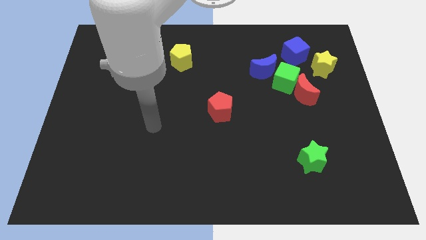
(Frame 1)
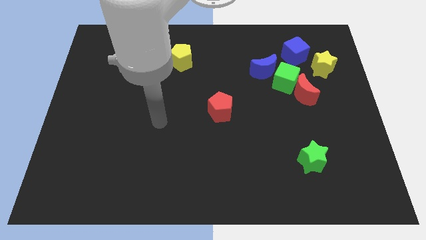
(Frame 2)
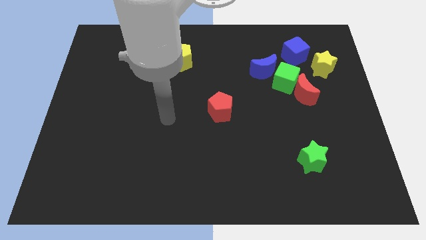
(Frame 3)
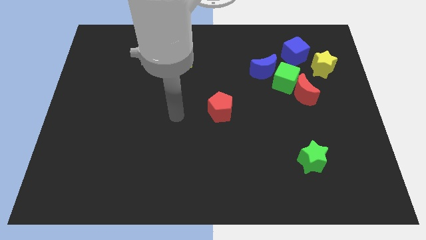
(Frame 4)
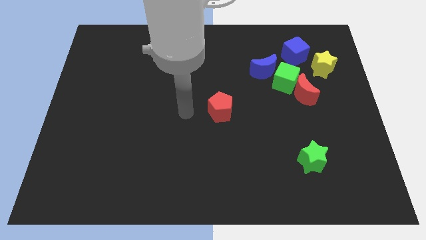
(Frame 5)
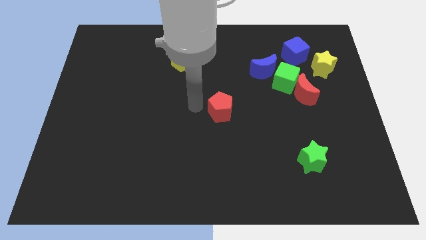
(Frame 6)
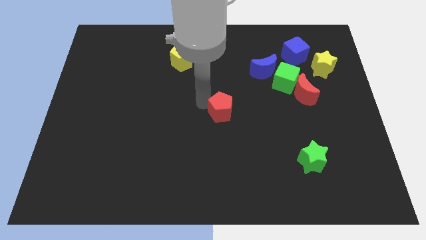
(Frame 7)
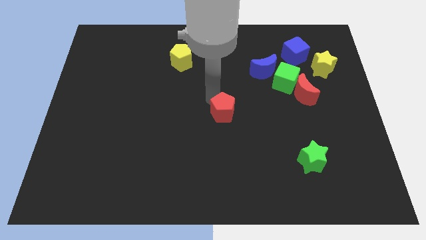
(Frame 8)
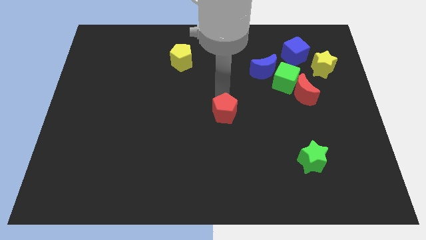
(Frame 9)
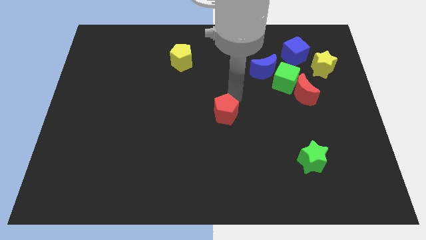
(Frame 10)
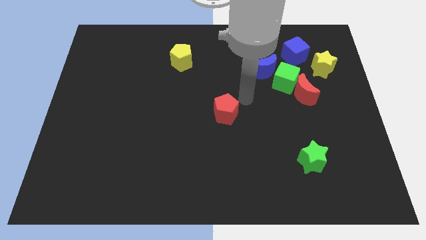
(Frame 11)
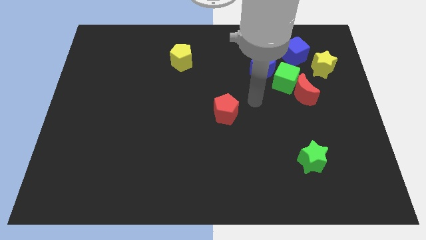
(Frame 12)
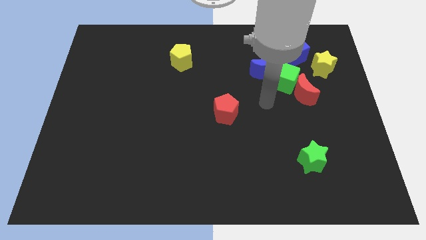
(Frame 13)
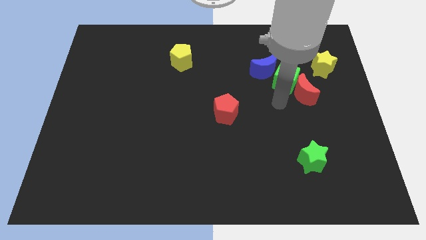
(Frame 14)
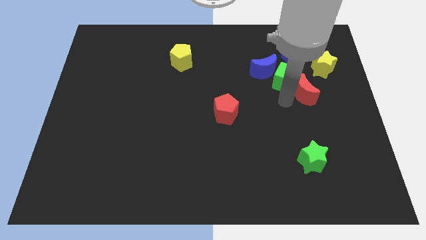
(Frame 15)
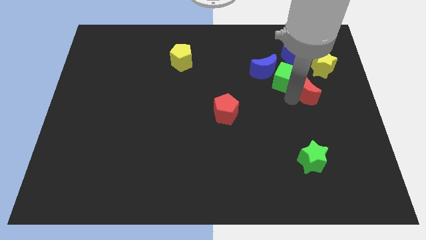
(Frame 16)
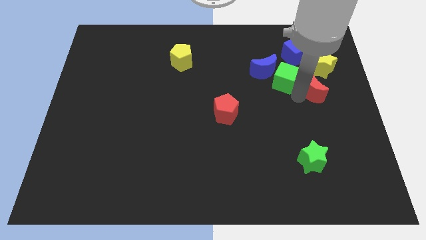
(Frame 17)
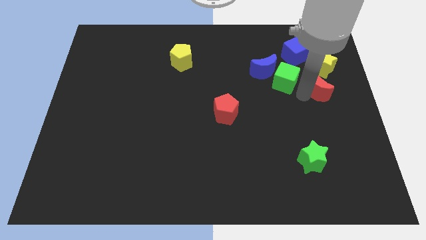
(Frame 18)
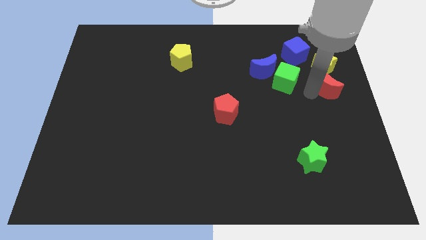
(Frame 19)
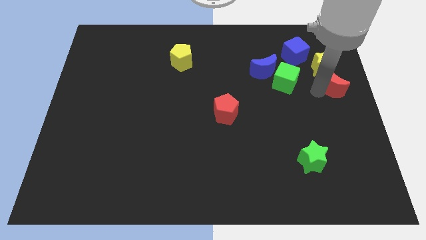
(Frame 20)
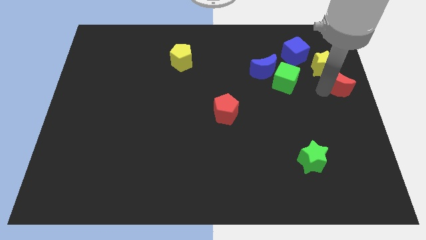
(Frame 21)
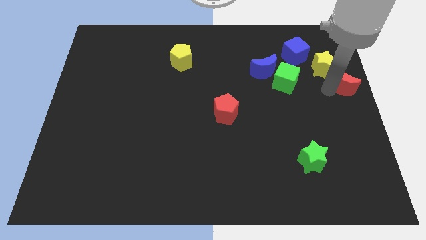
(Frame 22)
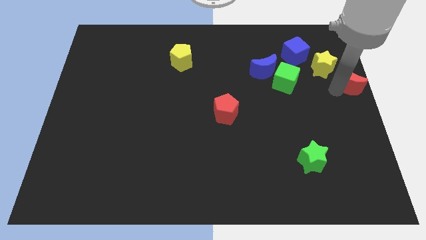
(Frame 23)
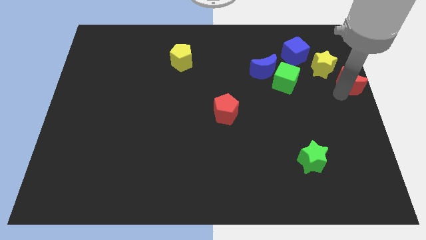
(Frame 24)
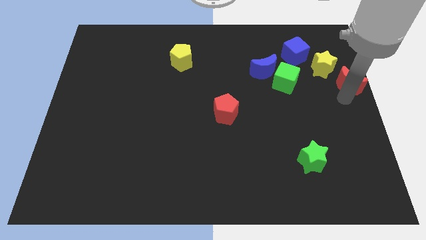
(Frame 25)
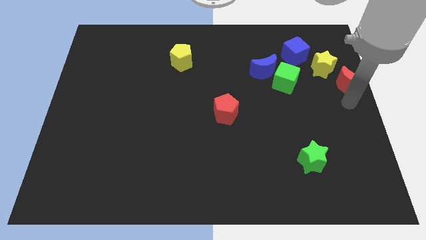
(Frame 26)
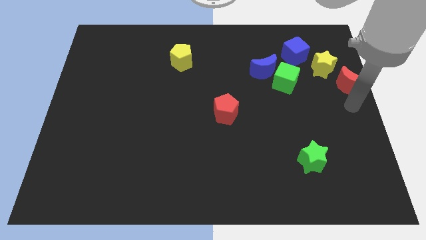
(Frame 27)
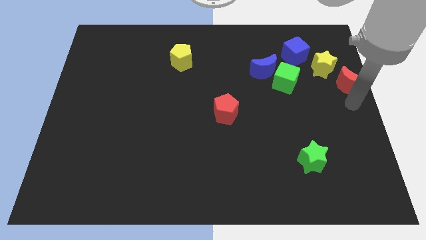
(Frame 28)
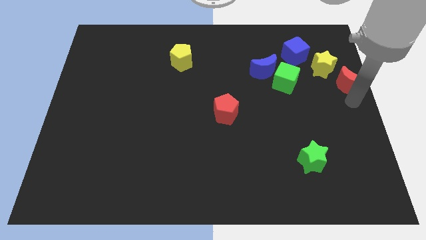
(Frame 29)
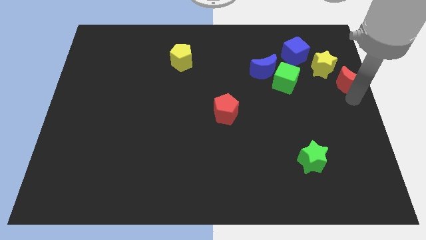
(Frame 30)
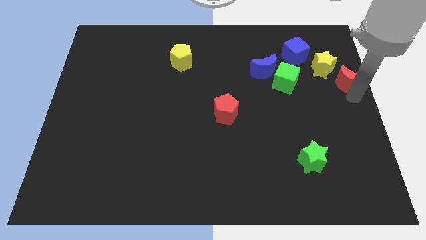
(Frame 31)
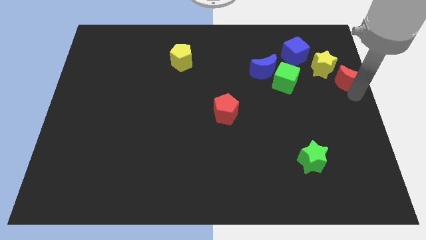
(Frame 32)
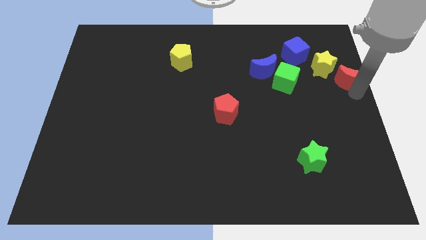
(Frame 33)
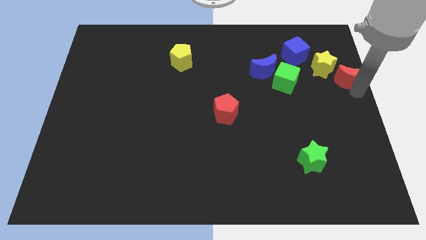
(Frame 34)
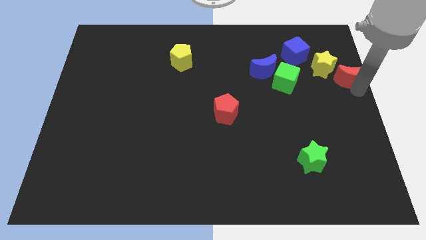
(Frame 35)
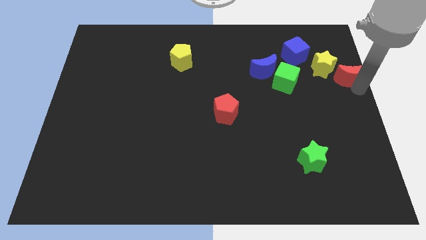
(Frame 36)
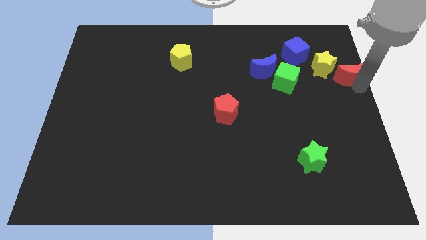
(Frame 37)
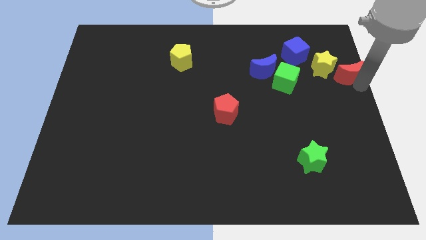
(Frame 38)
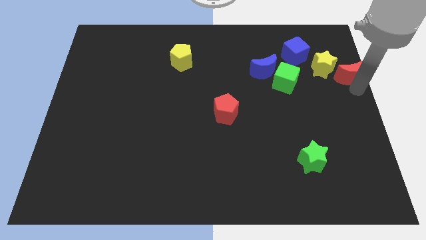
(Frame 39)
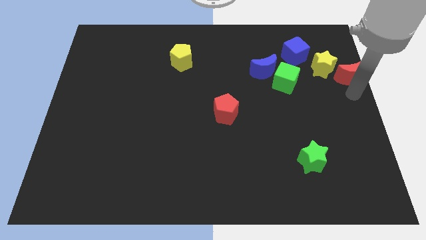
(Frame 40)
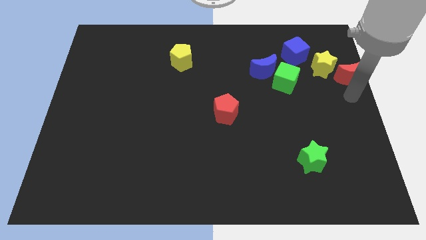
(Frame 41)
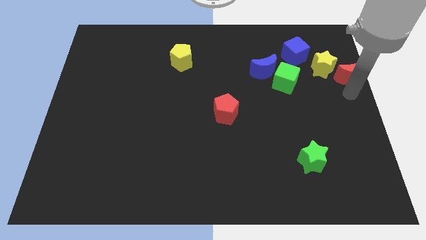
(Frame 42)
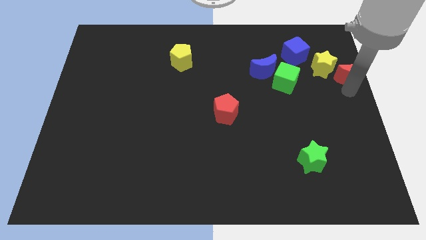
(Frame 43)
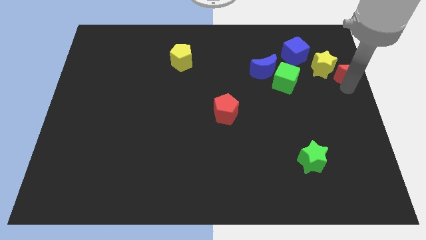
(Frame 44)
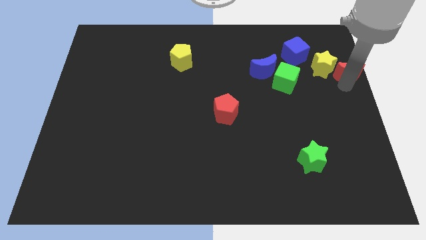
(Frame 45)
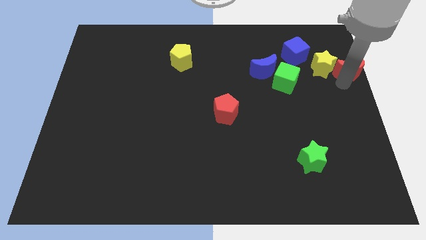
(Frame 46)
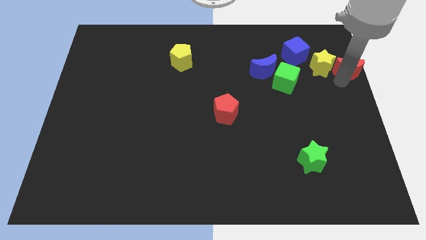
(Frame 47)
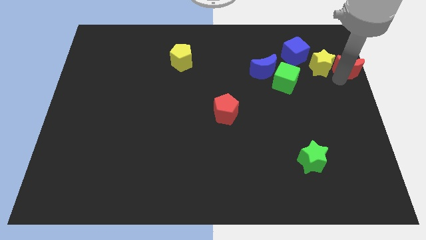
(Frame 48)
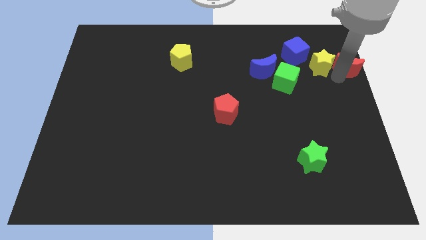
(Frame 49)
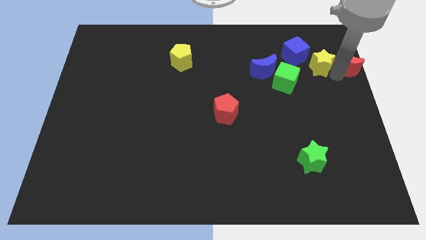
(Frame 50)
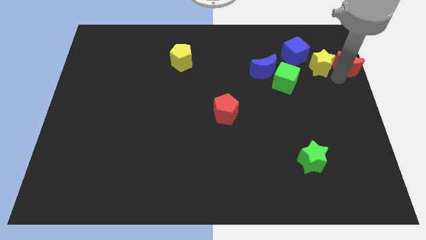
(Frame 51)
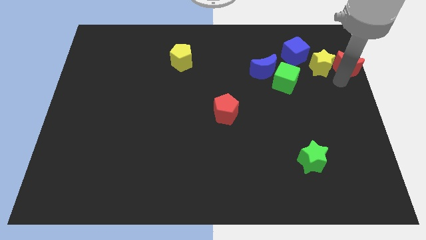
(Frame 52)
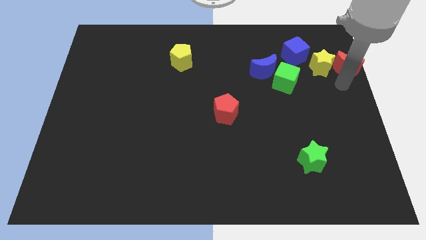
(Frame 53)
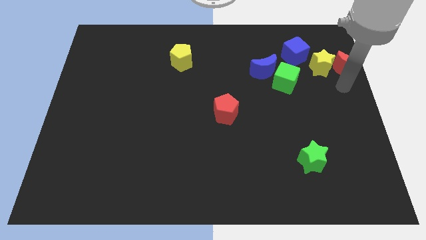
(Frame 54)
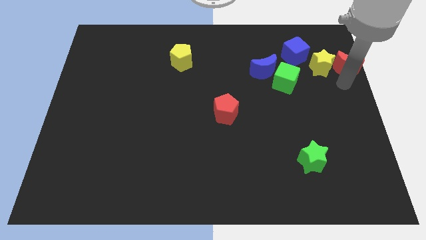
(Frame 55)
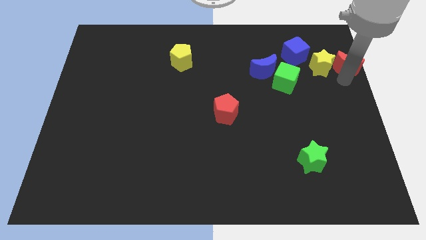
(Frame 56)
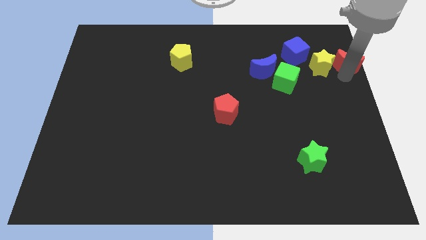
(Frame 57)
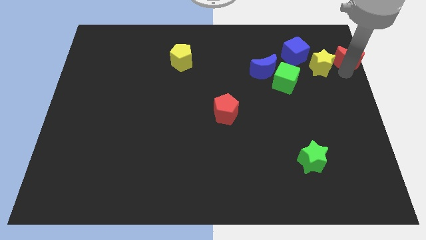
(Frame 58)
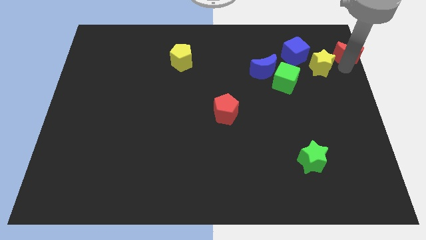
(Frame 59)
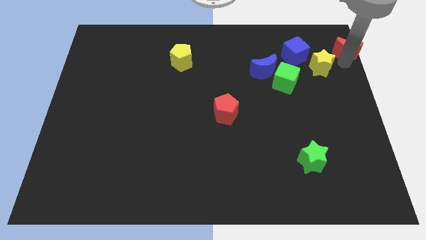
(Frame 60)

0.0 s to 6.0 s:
push the red moon to the top right
